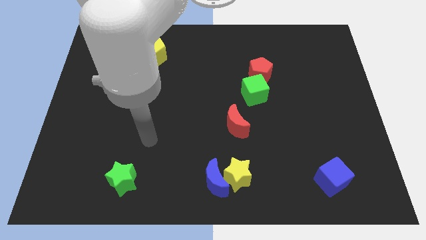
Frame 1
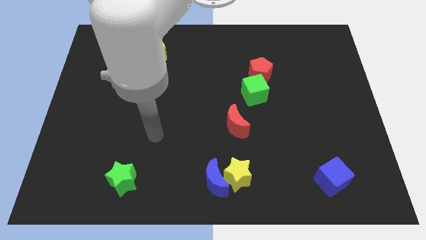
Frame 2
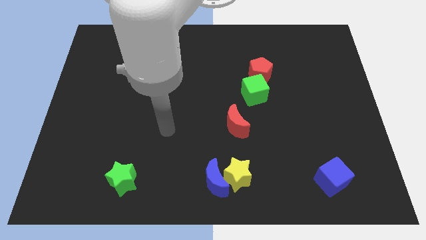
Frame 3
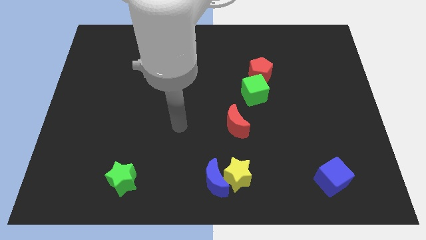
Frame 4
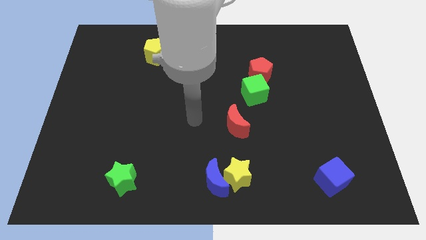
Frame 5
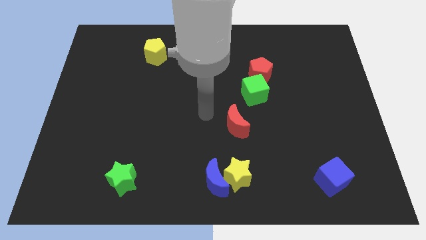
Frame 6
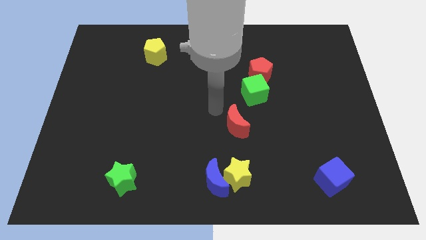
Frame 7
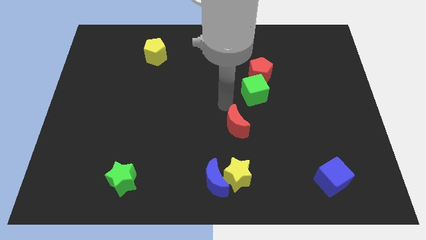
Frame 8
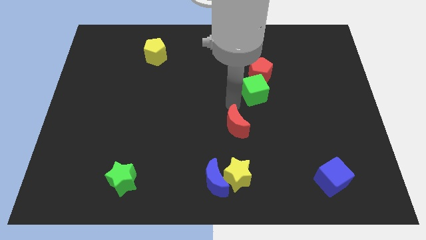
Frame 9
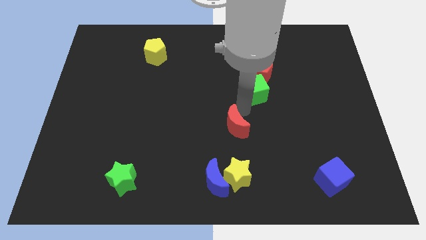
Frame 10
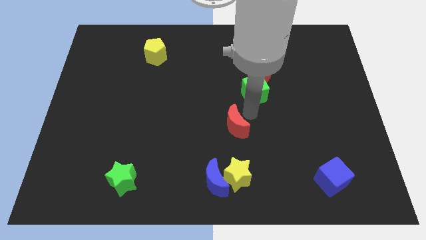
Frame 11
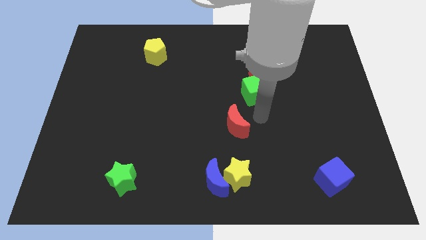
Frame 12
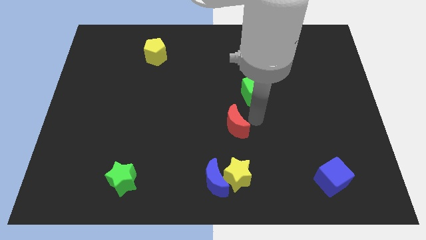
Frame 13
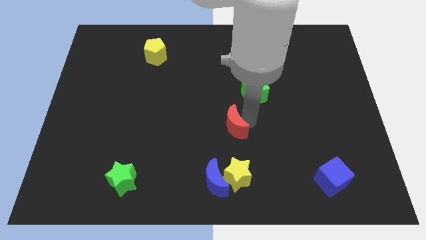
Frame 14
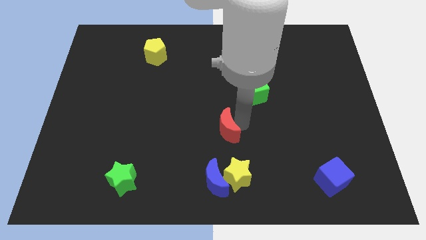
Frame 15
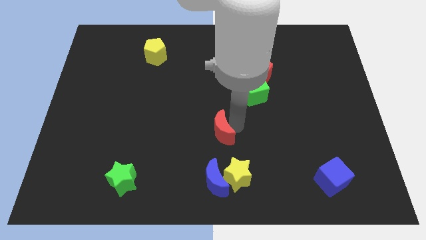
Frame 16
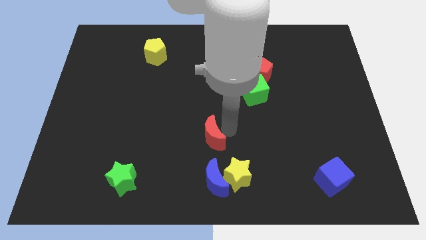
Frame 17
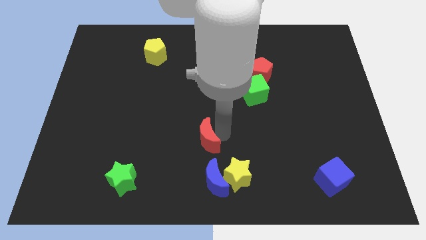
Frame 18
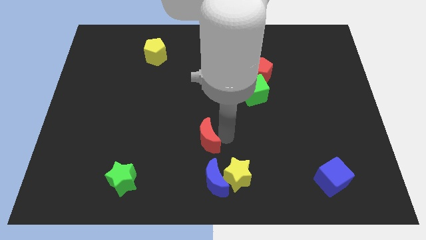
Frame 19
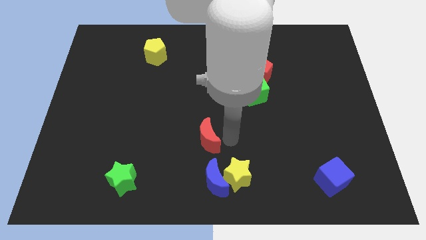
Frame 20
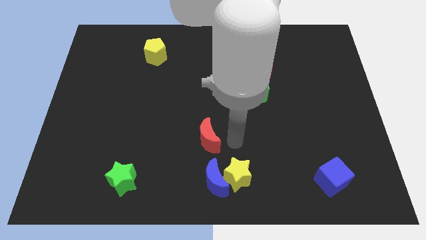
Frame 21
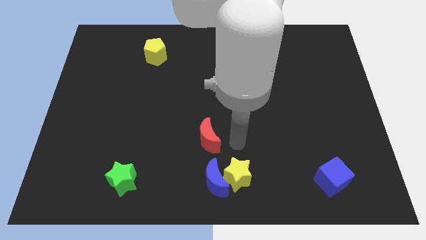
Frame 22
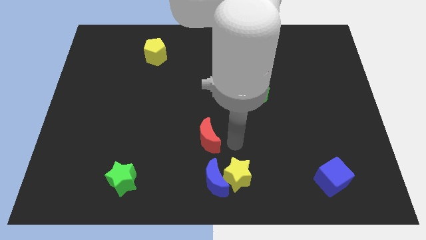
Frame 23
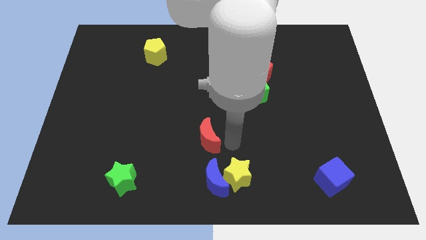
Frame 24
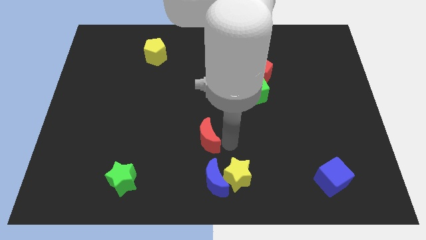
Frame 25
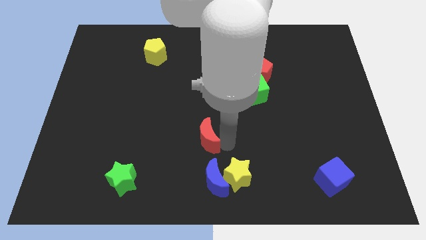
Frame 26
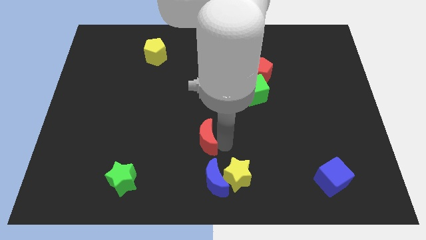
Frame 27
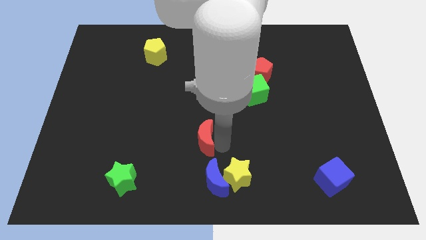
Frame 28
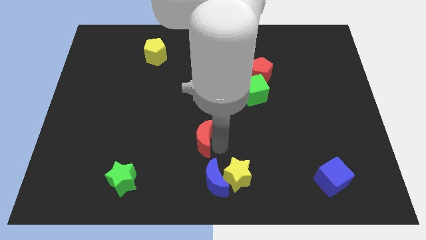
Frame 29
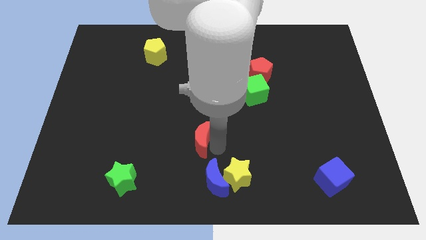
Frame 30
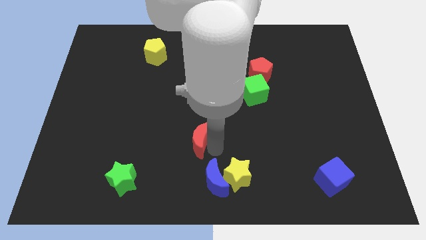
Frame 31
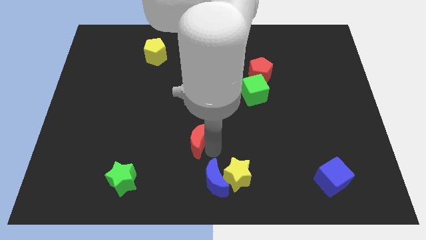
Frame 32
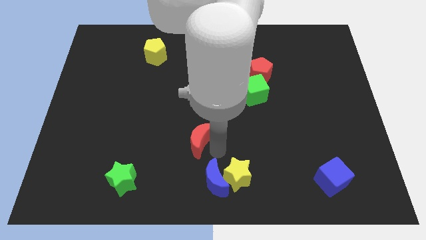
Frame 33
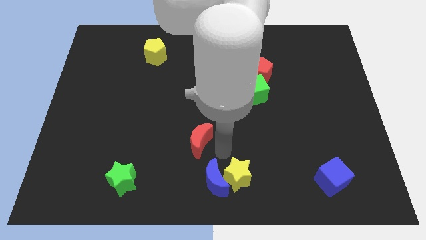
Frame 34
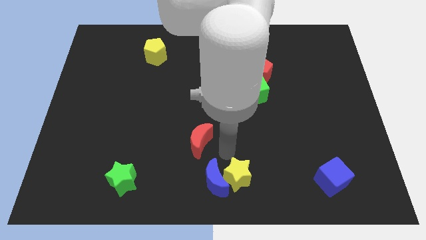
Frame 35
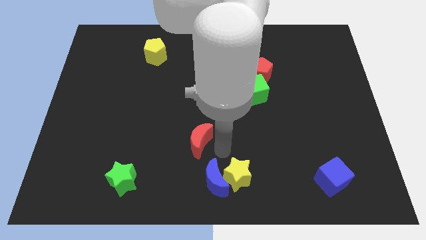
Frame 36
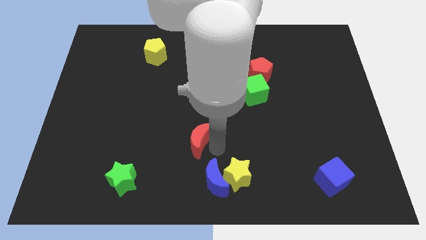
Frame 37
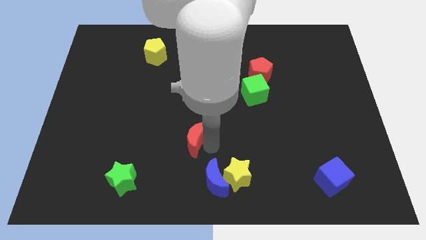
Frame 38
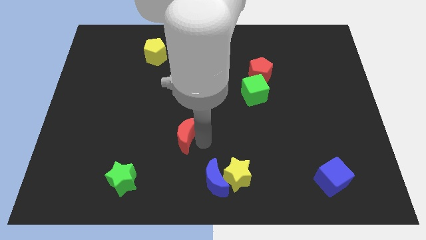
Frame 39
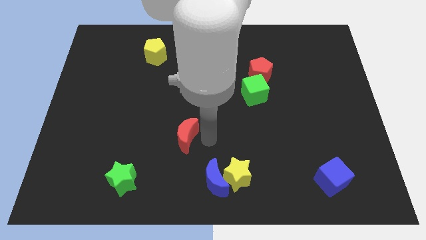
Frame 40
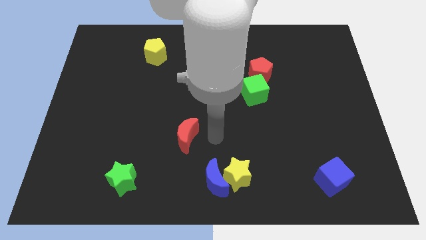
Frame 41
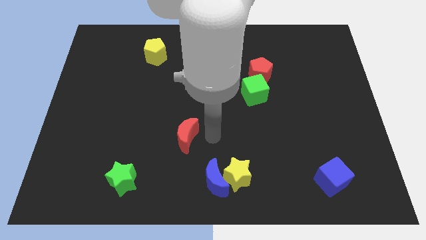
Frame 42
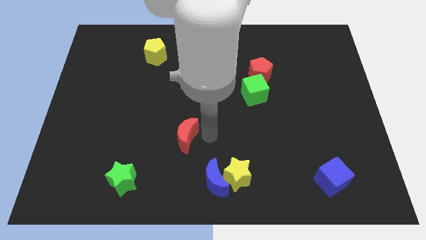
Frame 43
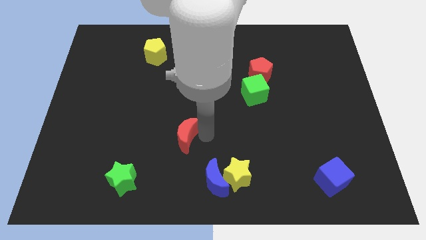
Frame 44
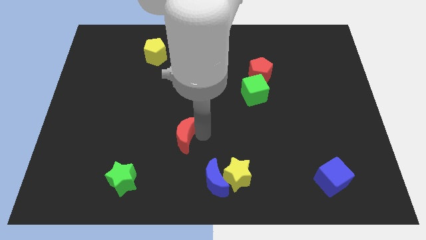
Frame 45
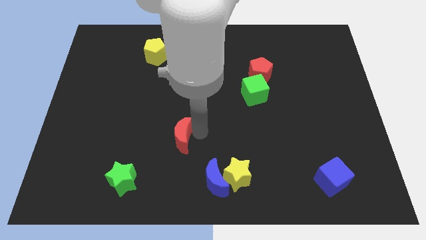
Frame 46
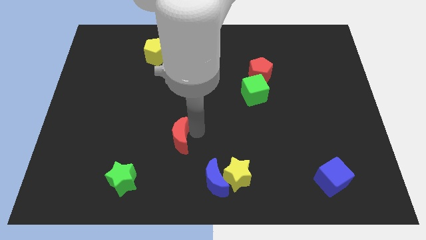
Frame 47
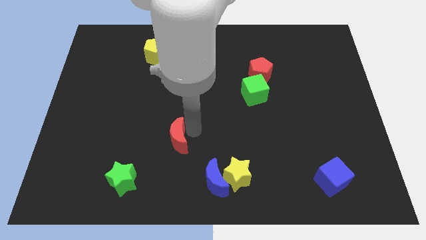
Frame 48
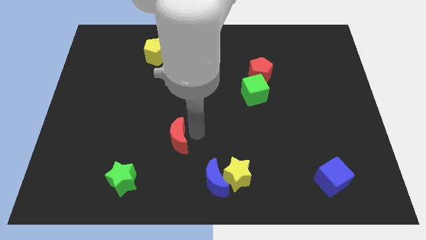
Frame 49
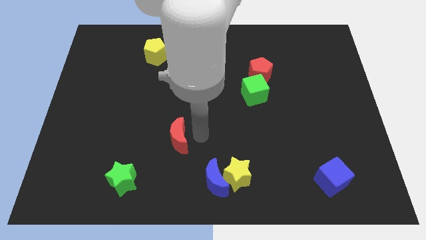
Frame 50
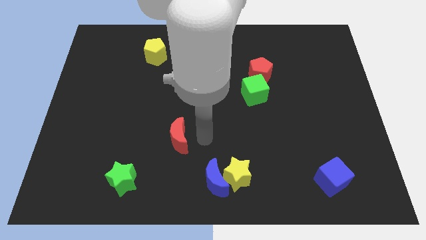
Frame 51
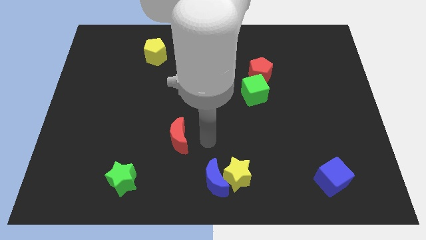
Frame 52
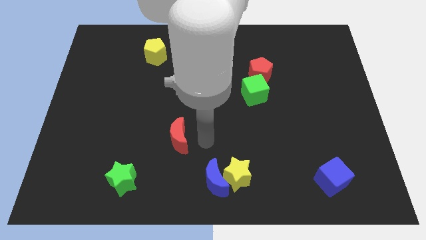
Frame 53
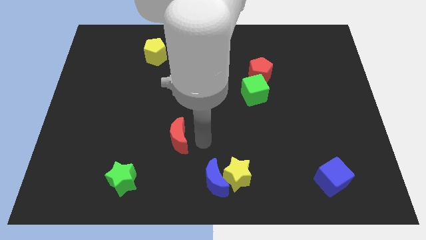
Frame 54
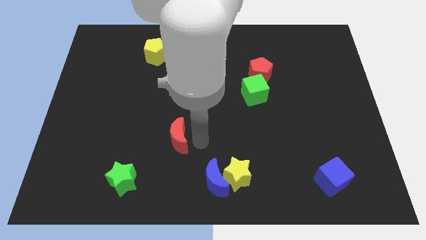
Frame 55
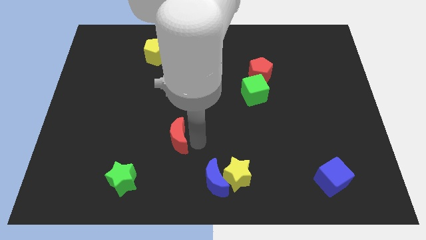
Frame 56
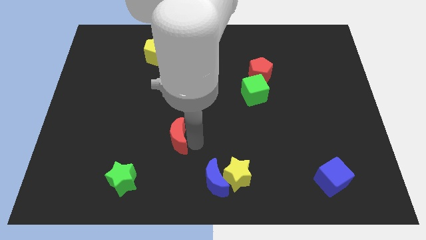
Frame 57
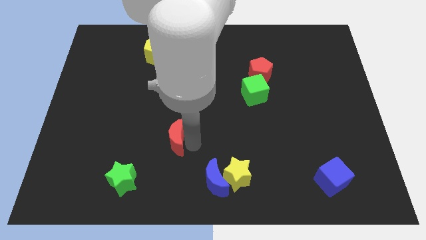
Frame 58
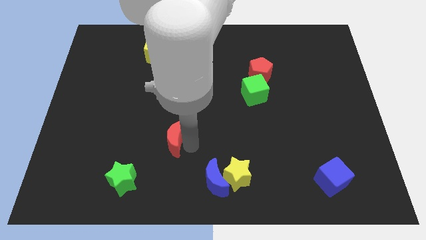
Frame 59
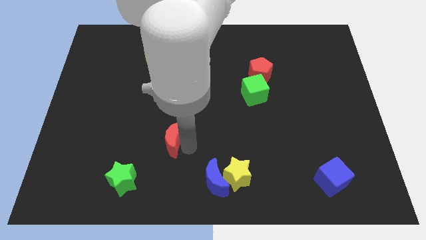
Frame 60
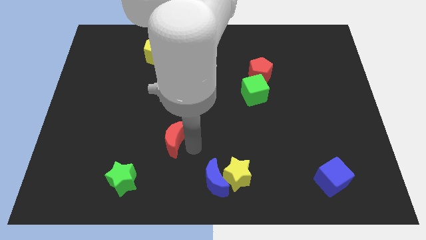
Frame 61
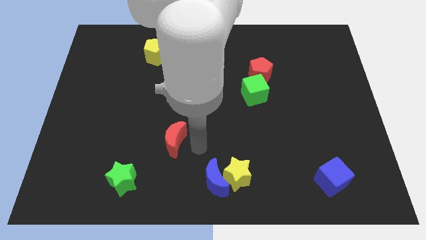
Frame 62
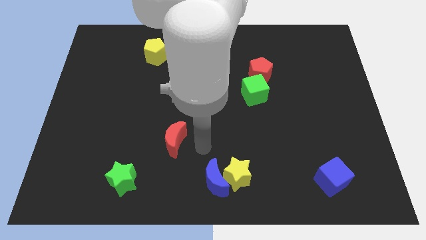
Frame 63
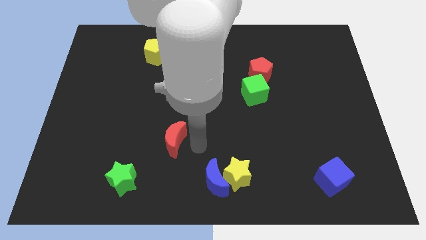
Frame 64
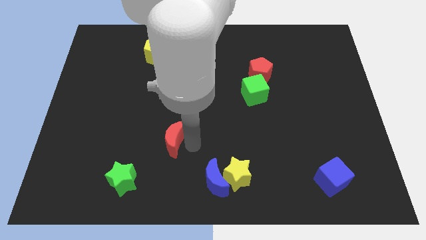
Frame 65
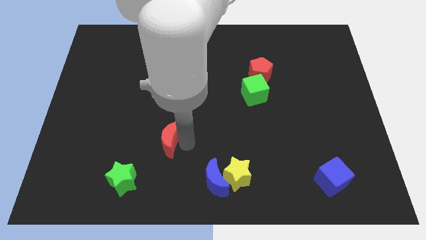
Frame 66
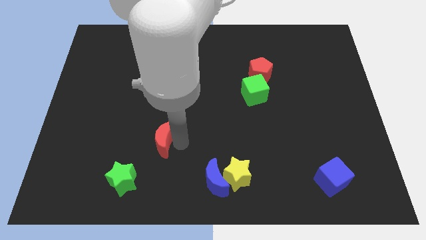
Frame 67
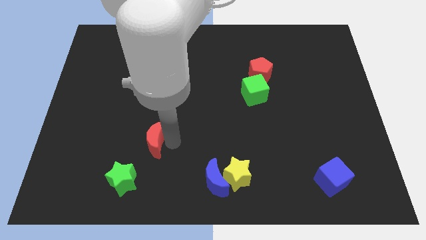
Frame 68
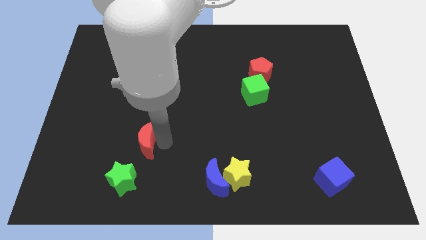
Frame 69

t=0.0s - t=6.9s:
push the red moon to the top side of the green star
